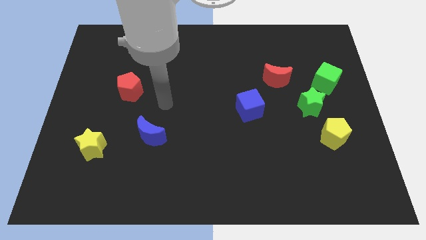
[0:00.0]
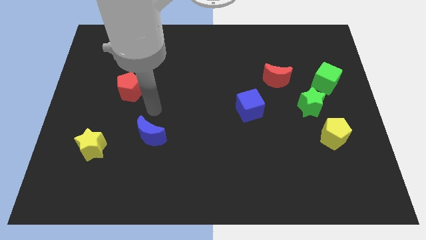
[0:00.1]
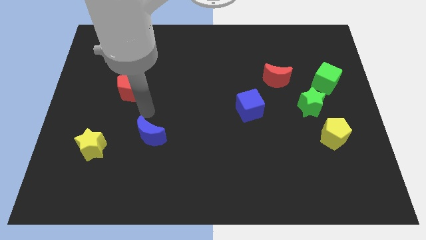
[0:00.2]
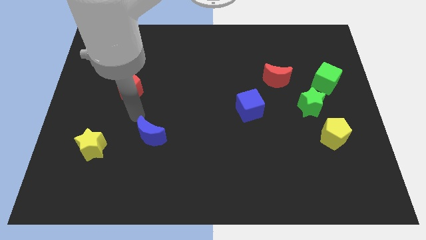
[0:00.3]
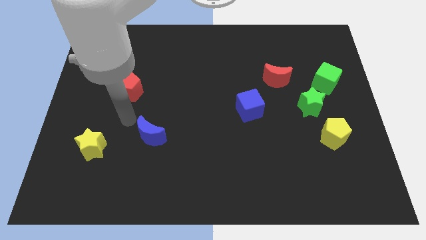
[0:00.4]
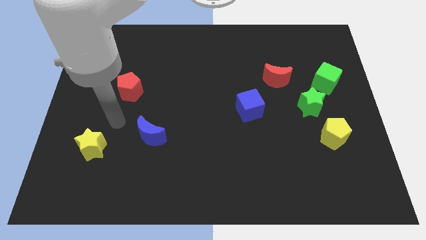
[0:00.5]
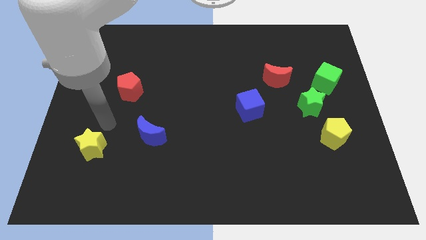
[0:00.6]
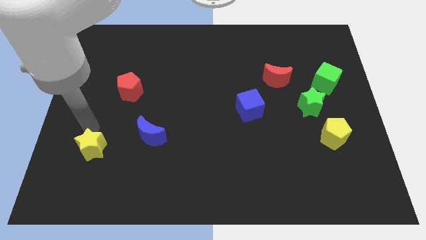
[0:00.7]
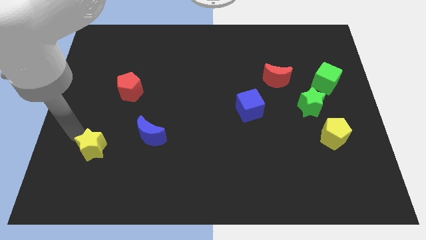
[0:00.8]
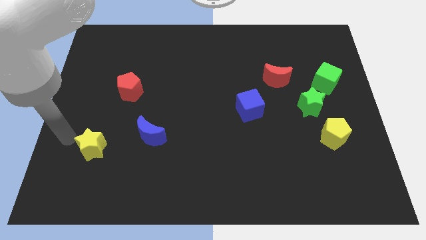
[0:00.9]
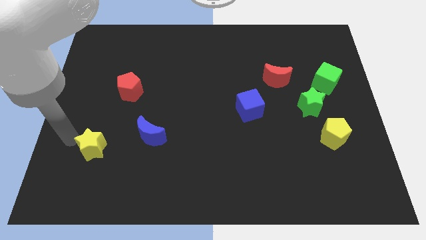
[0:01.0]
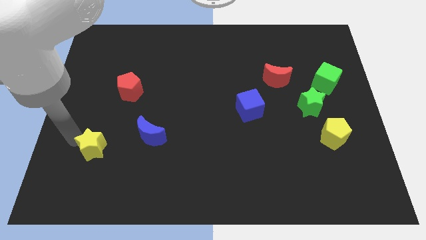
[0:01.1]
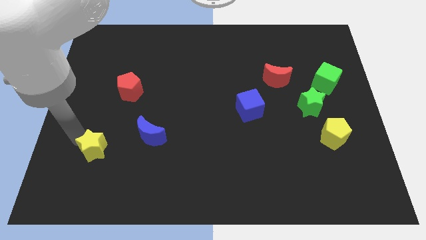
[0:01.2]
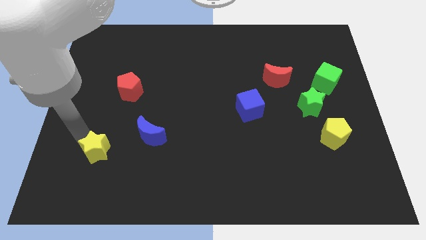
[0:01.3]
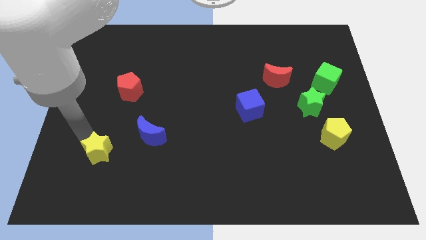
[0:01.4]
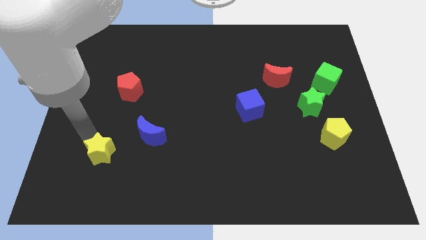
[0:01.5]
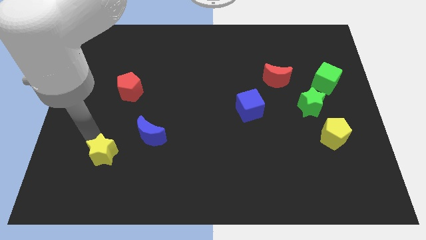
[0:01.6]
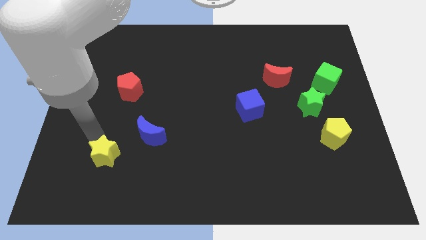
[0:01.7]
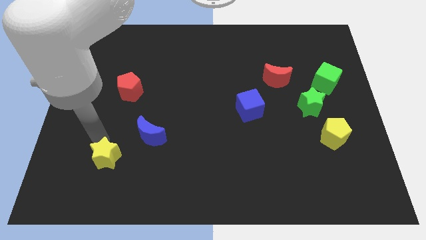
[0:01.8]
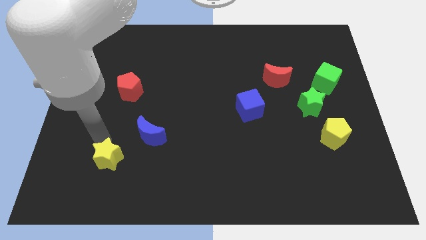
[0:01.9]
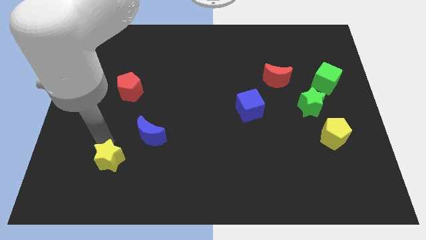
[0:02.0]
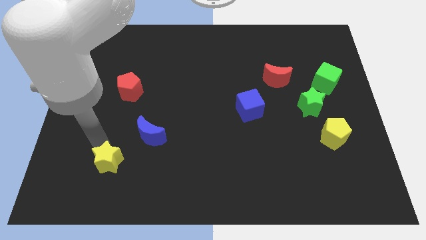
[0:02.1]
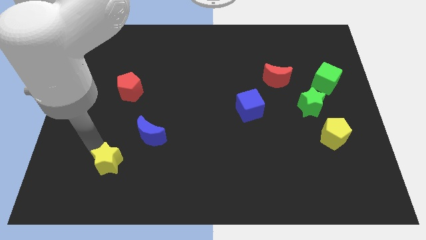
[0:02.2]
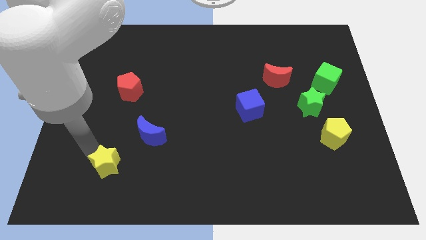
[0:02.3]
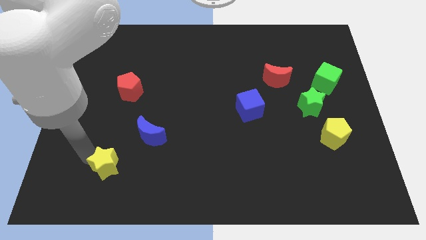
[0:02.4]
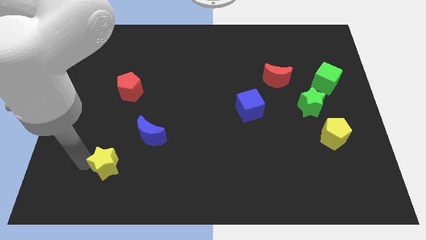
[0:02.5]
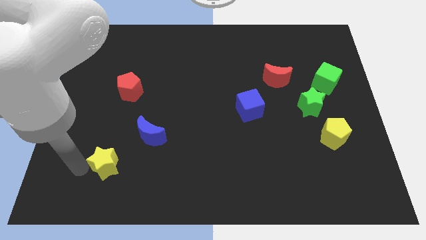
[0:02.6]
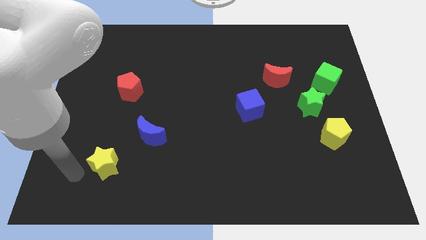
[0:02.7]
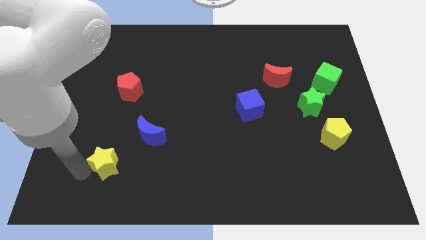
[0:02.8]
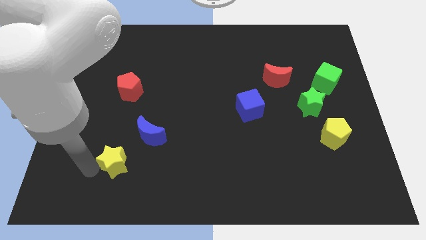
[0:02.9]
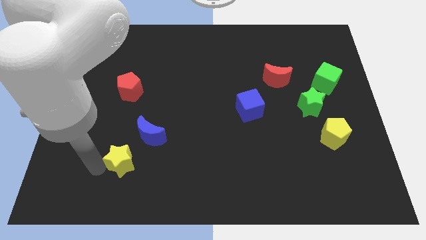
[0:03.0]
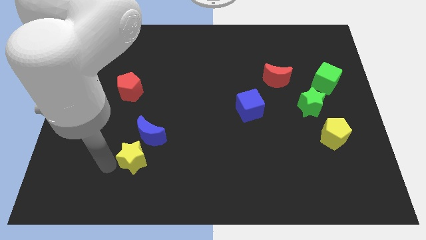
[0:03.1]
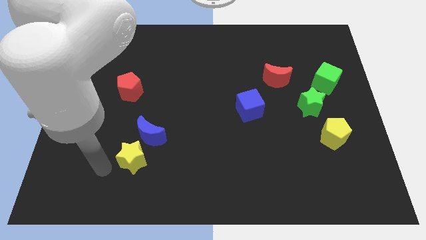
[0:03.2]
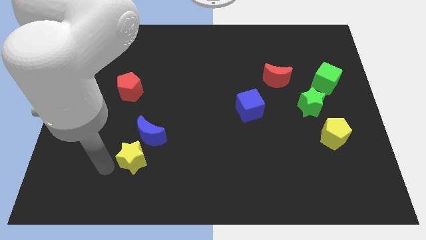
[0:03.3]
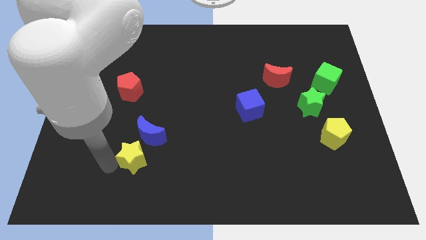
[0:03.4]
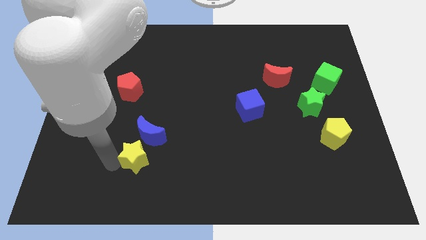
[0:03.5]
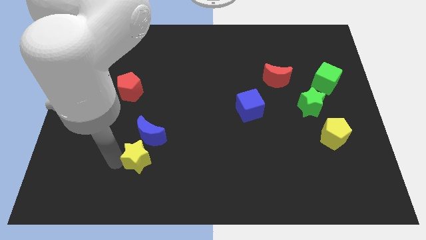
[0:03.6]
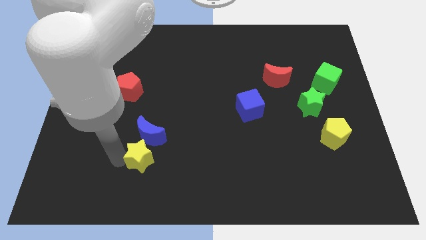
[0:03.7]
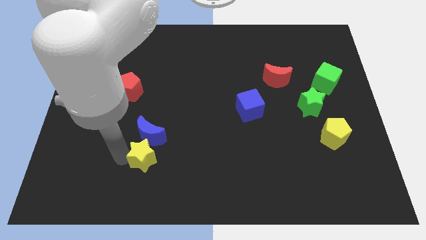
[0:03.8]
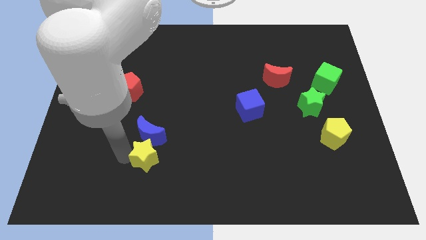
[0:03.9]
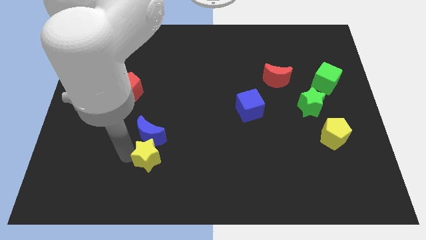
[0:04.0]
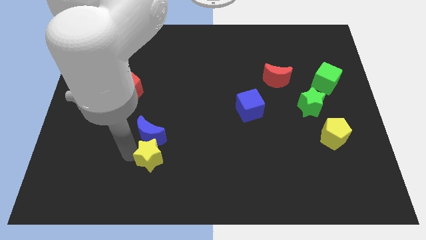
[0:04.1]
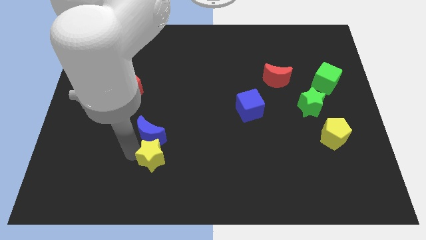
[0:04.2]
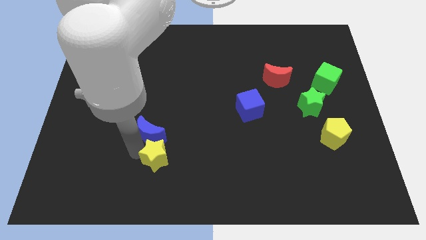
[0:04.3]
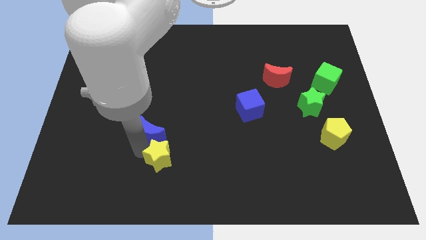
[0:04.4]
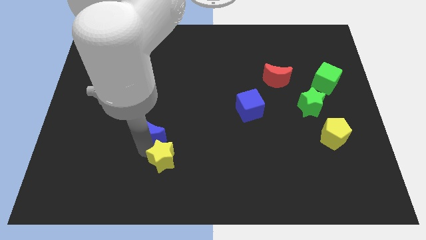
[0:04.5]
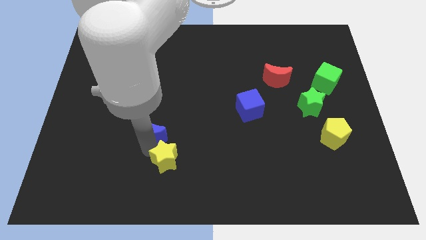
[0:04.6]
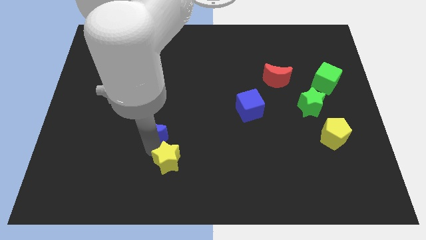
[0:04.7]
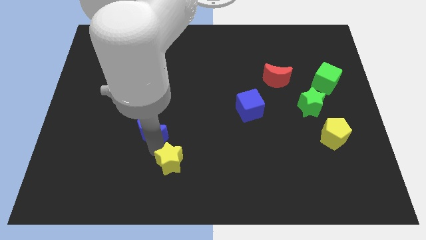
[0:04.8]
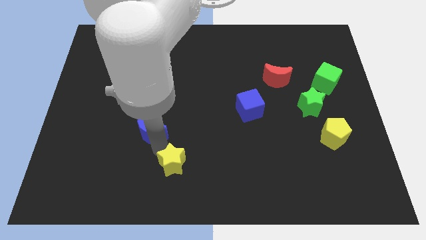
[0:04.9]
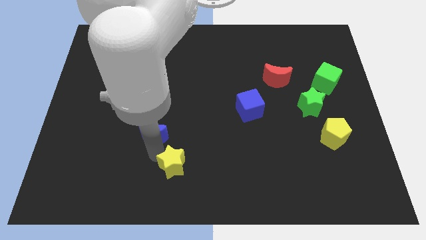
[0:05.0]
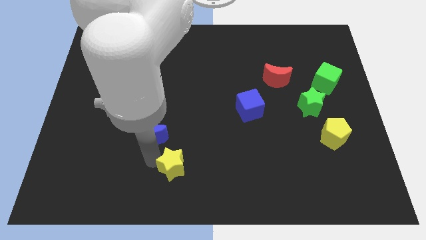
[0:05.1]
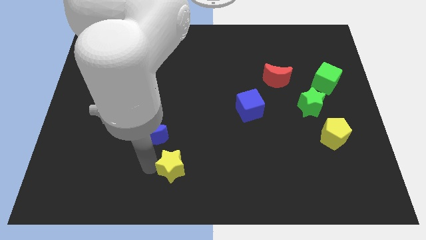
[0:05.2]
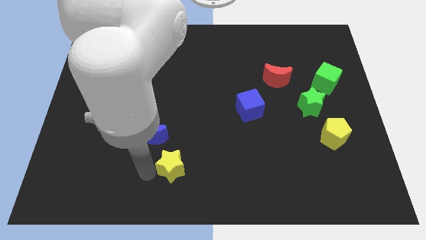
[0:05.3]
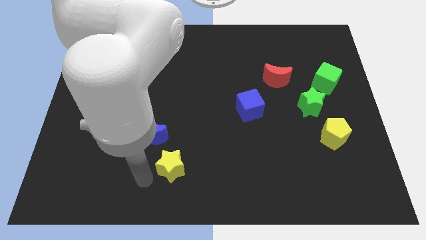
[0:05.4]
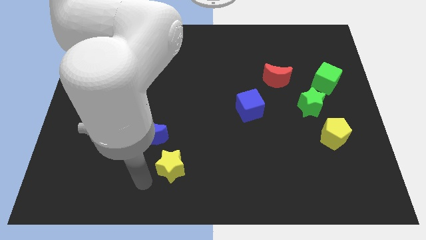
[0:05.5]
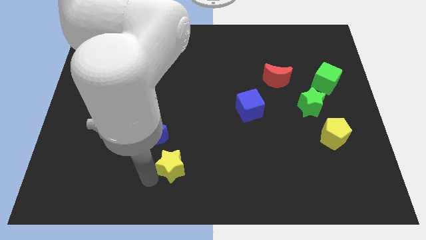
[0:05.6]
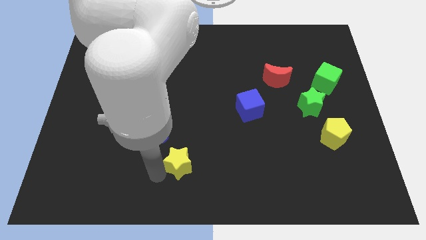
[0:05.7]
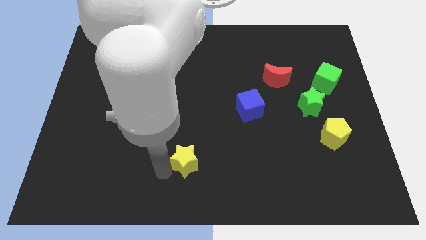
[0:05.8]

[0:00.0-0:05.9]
move the yellow star to the right

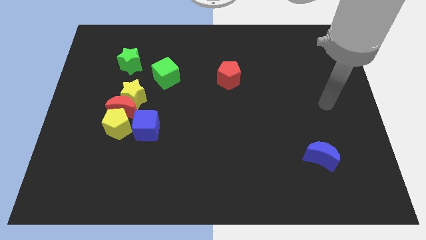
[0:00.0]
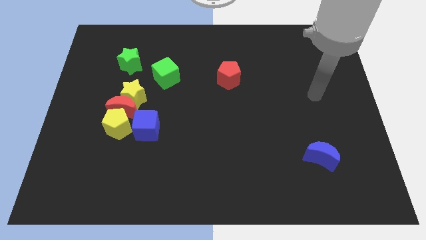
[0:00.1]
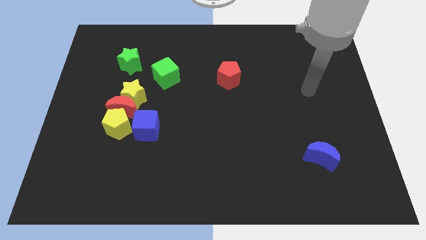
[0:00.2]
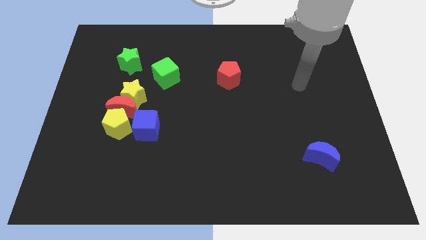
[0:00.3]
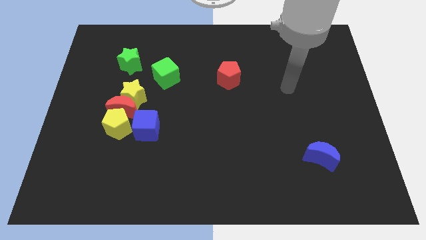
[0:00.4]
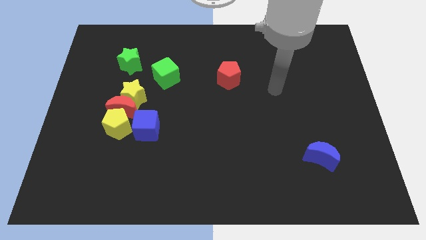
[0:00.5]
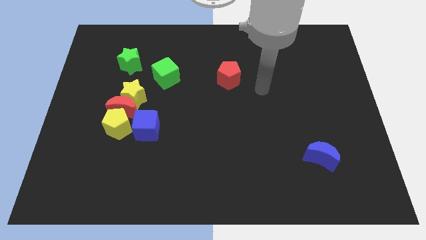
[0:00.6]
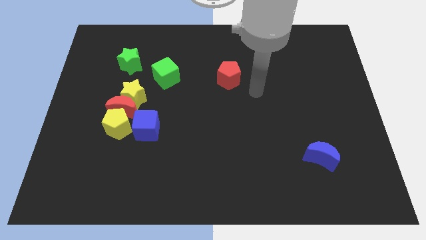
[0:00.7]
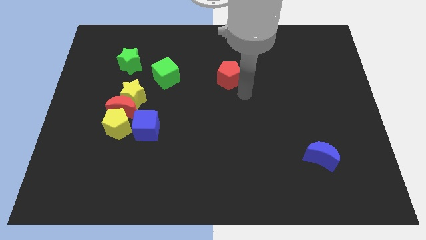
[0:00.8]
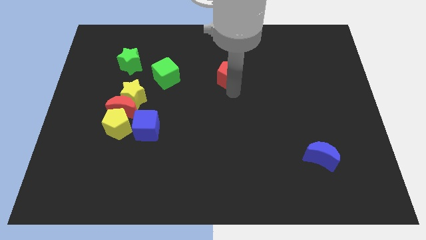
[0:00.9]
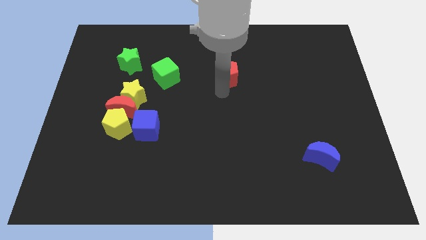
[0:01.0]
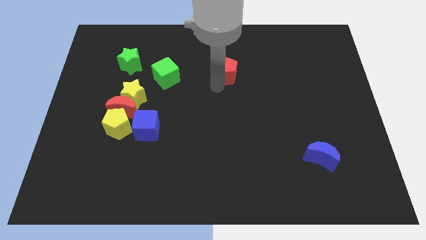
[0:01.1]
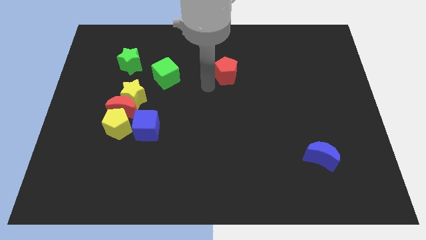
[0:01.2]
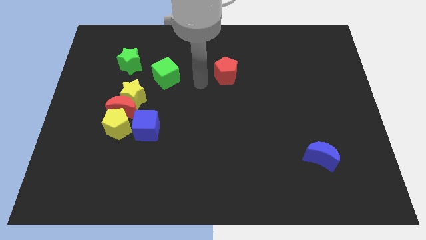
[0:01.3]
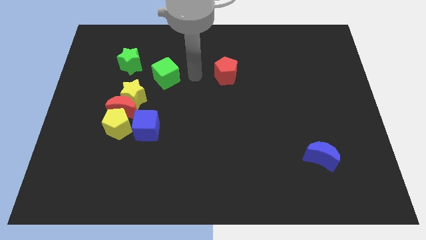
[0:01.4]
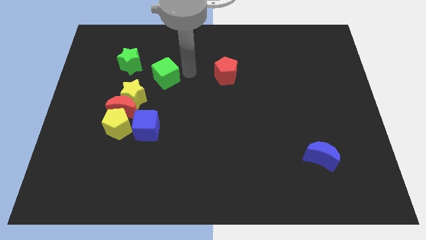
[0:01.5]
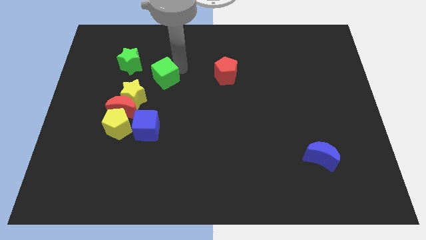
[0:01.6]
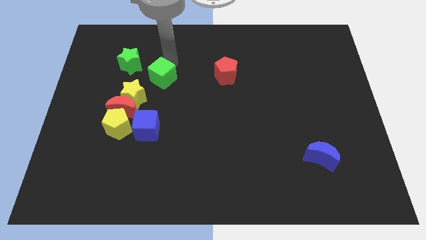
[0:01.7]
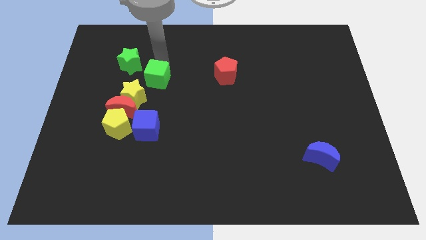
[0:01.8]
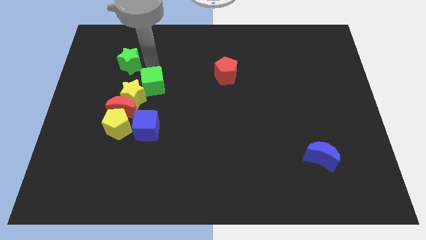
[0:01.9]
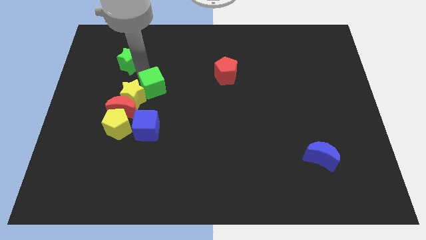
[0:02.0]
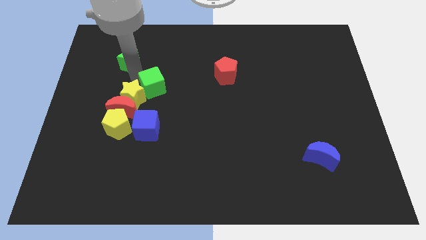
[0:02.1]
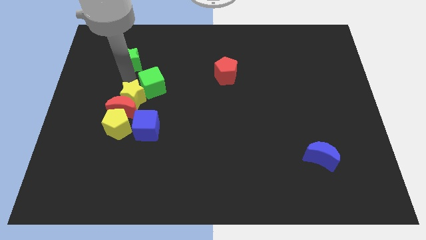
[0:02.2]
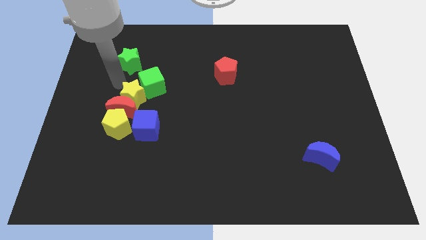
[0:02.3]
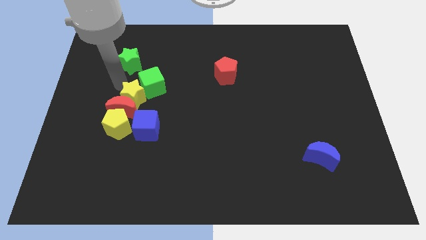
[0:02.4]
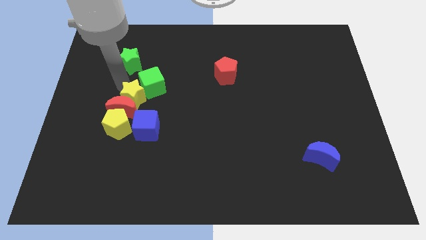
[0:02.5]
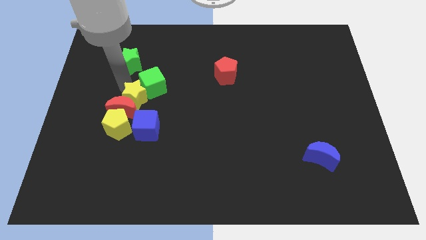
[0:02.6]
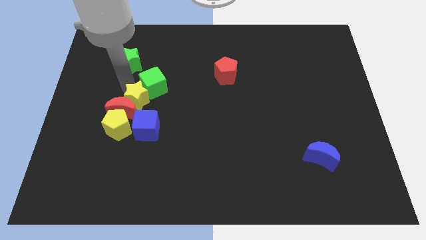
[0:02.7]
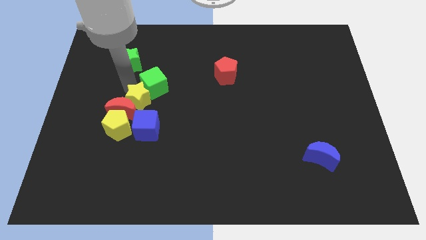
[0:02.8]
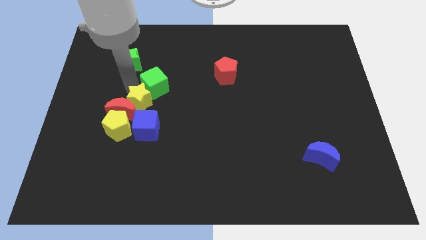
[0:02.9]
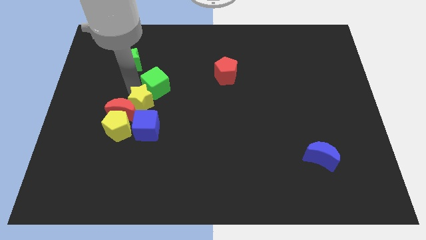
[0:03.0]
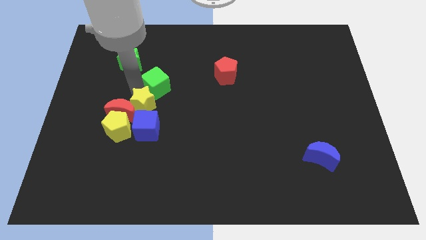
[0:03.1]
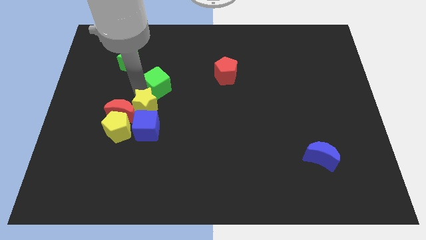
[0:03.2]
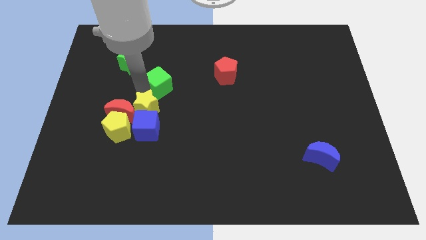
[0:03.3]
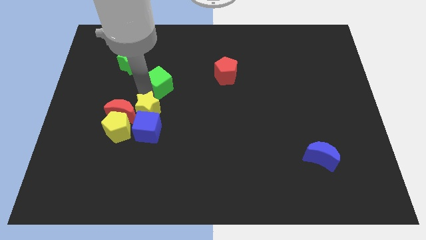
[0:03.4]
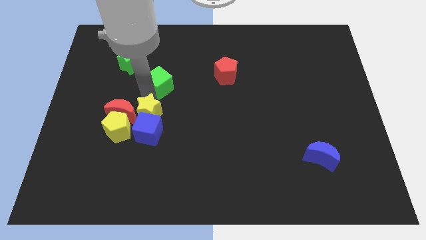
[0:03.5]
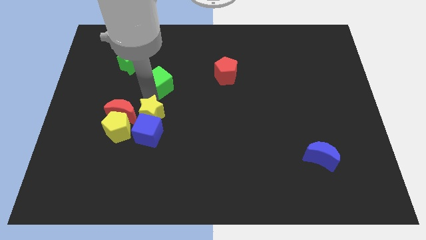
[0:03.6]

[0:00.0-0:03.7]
slightly push the yellow star down and to the right
